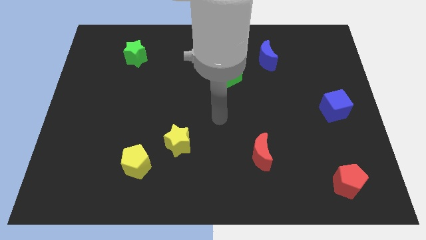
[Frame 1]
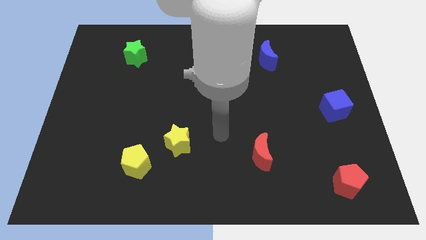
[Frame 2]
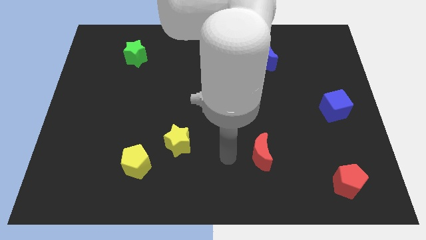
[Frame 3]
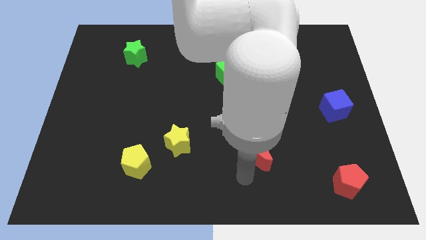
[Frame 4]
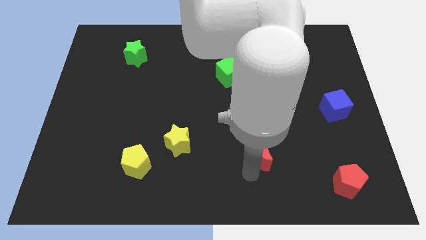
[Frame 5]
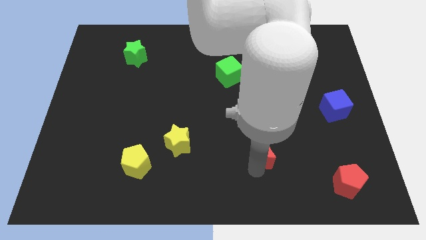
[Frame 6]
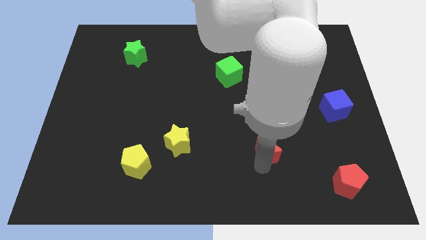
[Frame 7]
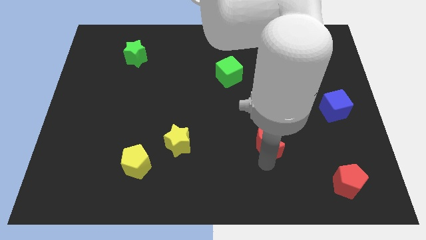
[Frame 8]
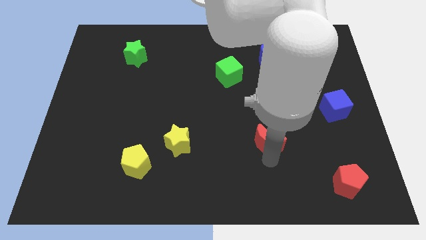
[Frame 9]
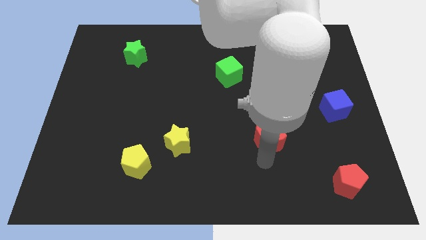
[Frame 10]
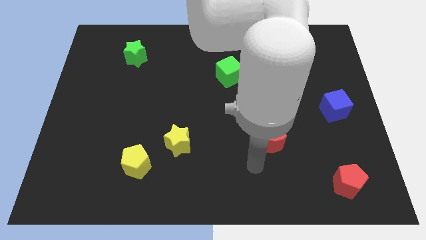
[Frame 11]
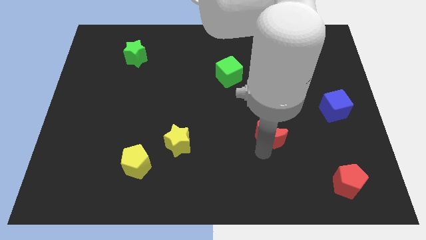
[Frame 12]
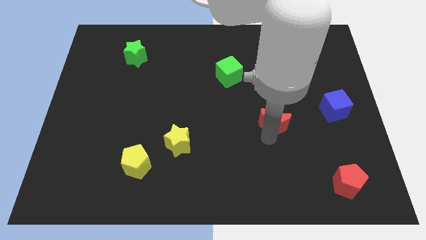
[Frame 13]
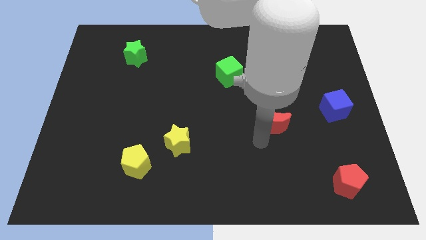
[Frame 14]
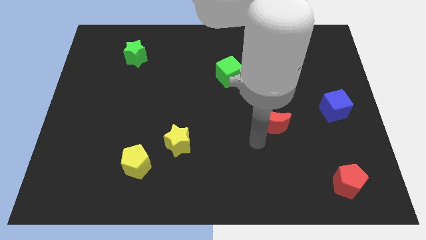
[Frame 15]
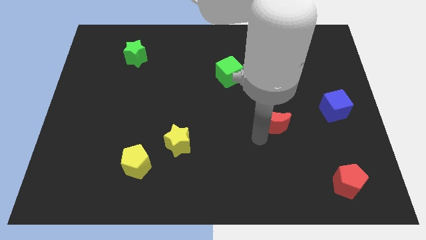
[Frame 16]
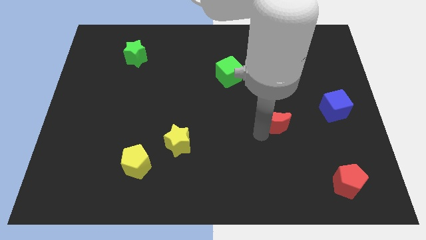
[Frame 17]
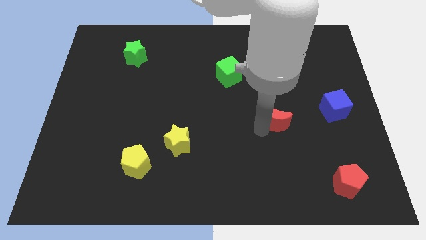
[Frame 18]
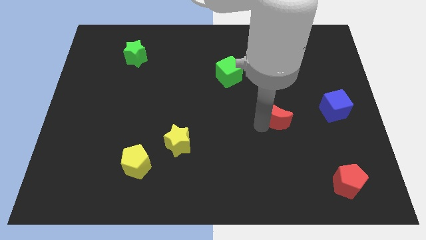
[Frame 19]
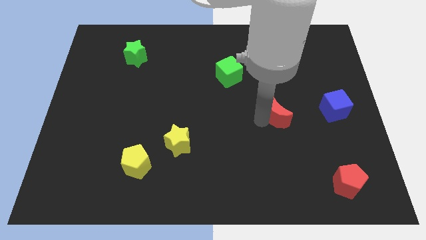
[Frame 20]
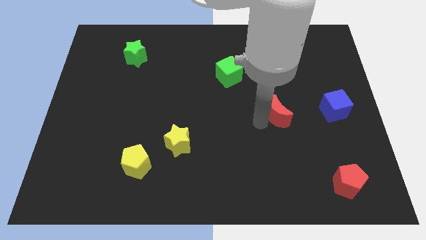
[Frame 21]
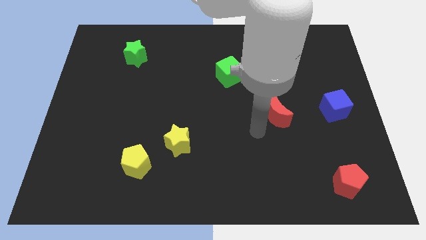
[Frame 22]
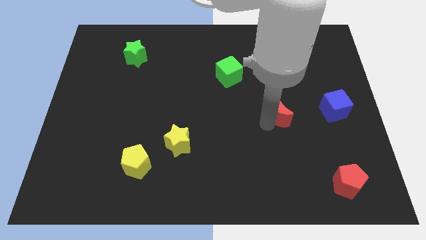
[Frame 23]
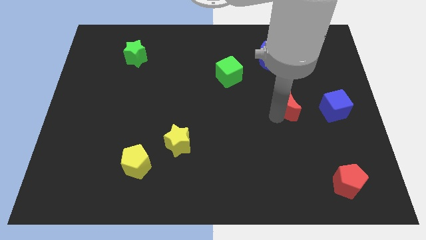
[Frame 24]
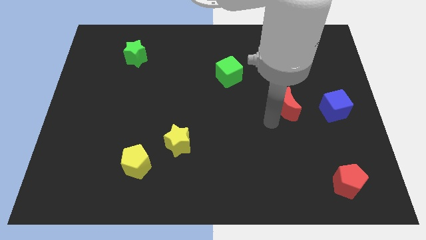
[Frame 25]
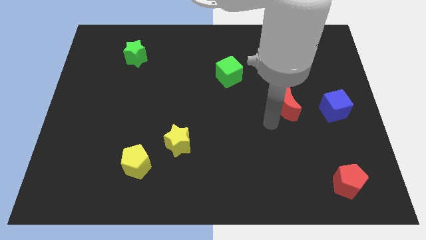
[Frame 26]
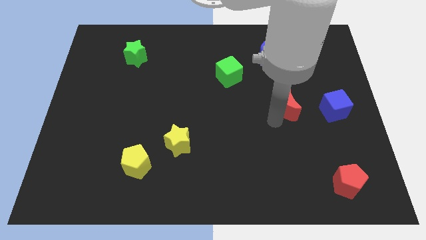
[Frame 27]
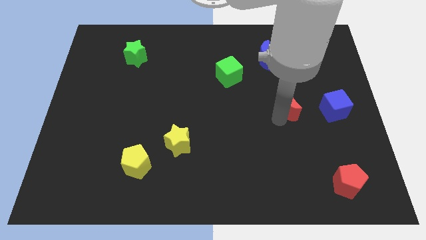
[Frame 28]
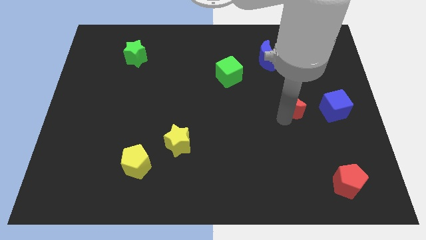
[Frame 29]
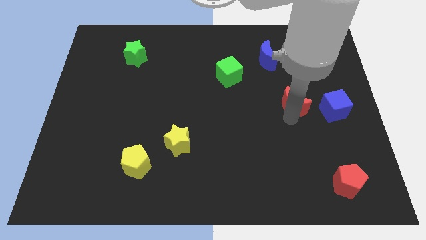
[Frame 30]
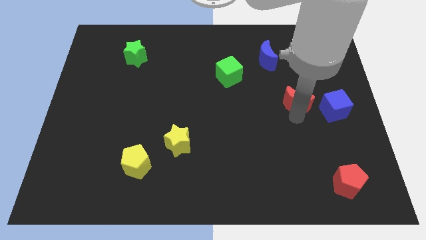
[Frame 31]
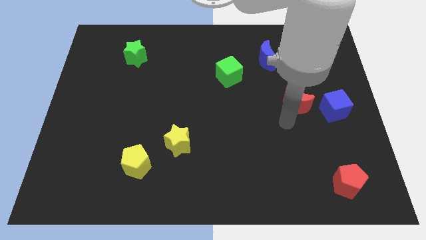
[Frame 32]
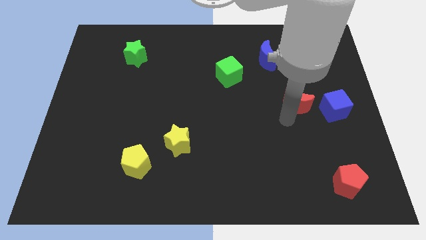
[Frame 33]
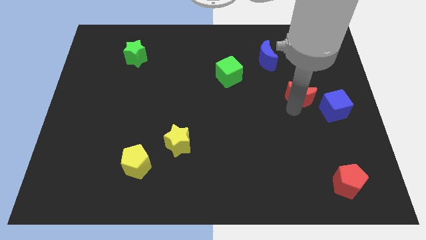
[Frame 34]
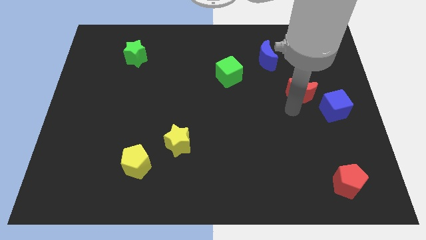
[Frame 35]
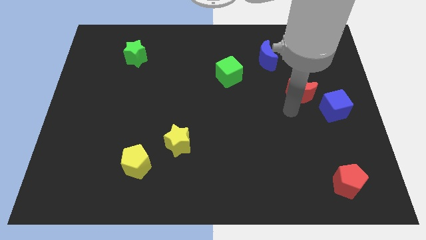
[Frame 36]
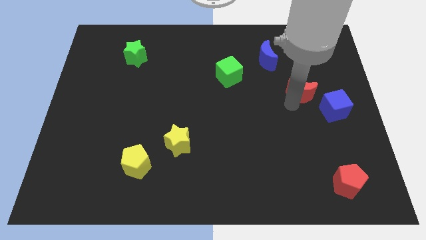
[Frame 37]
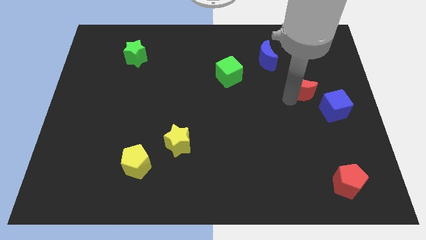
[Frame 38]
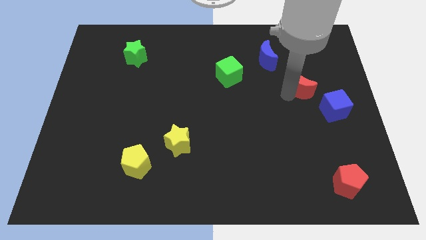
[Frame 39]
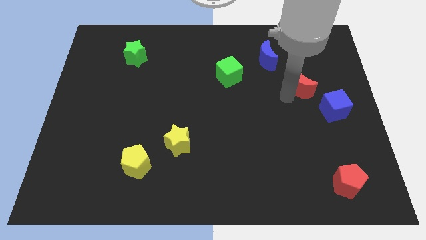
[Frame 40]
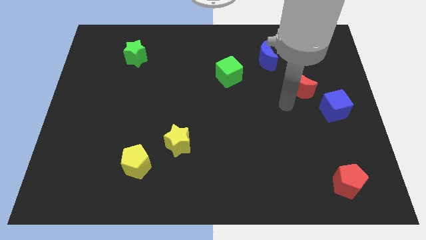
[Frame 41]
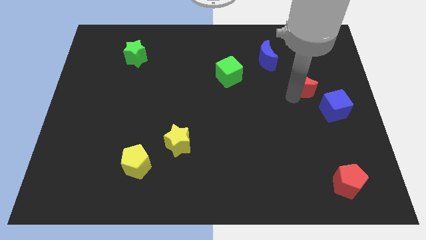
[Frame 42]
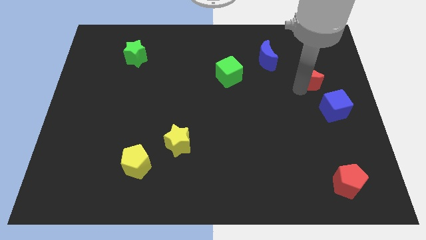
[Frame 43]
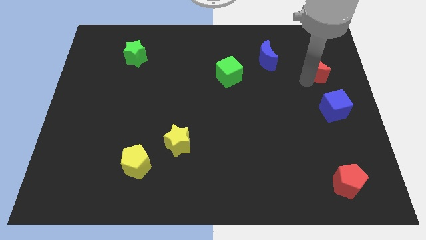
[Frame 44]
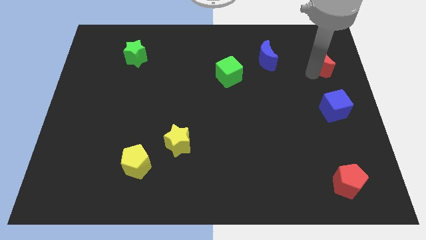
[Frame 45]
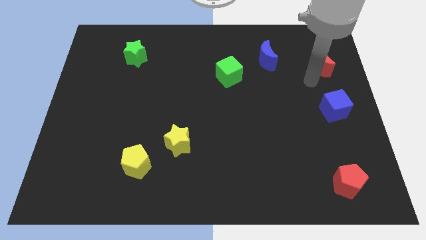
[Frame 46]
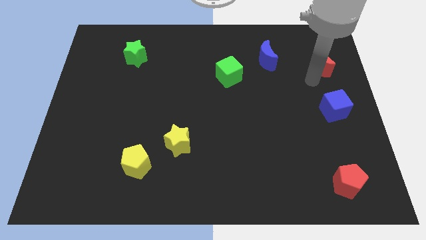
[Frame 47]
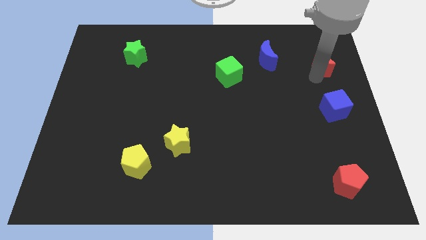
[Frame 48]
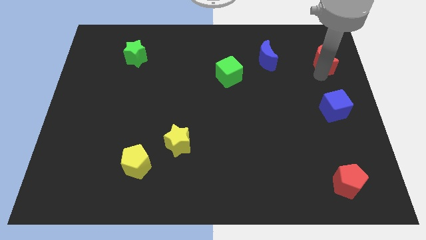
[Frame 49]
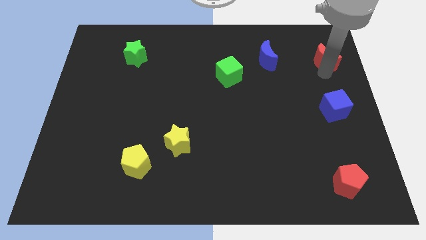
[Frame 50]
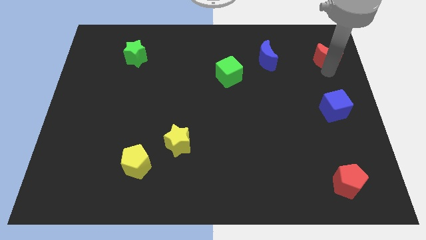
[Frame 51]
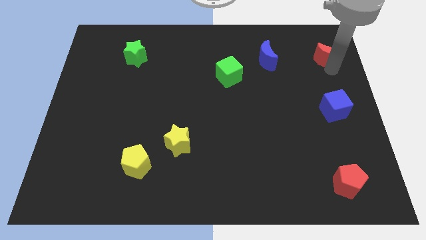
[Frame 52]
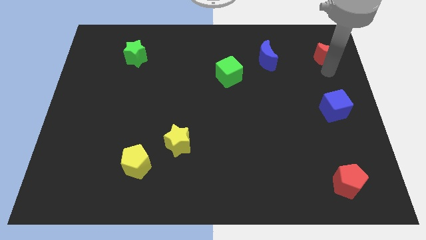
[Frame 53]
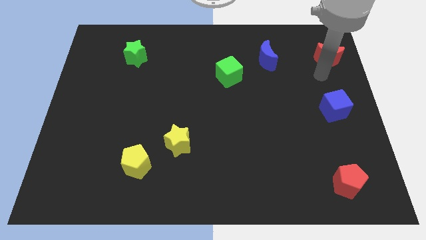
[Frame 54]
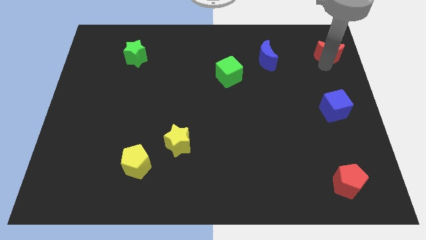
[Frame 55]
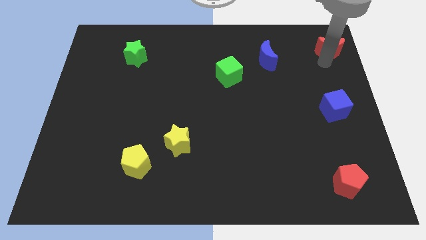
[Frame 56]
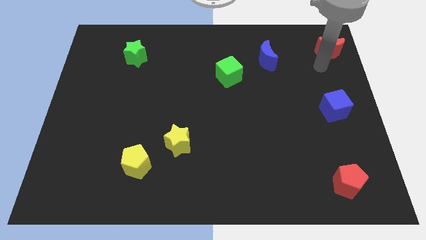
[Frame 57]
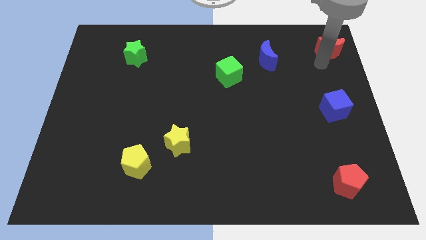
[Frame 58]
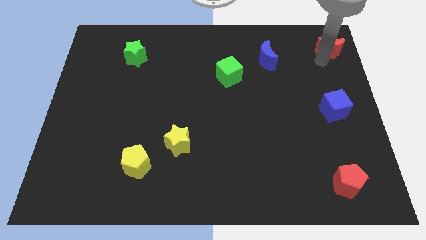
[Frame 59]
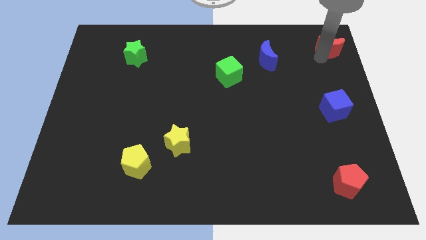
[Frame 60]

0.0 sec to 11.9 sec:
push the red moon to the top right corner

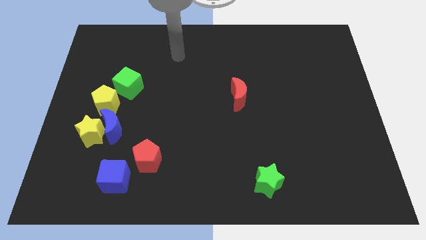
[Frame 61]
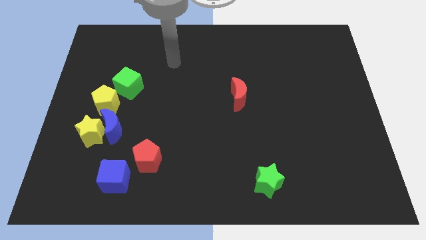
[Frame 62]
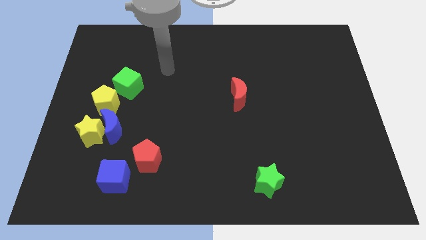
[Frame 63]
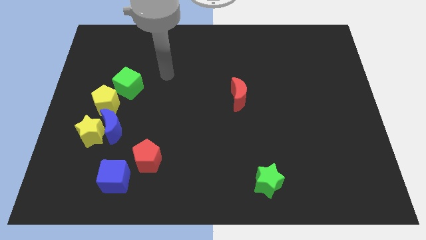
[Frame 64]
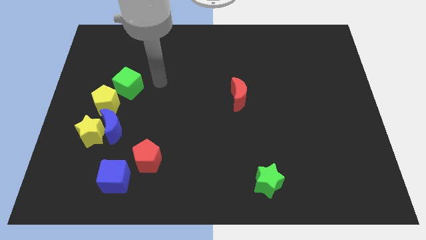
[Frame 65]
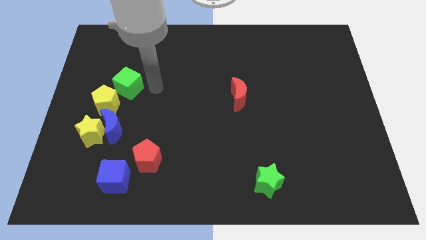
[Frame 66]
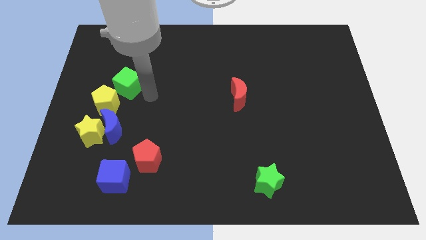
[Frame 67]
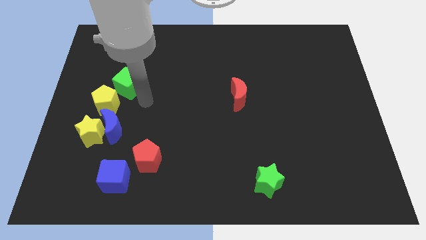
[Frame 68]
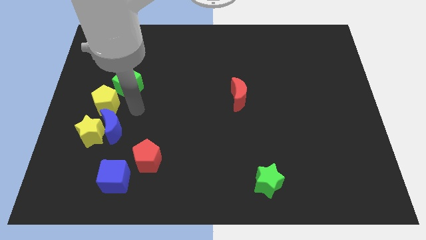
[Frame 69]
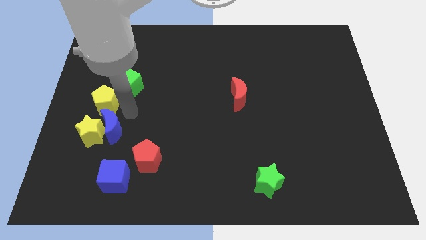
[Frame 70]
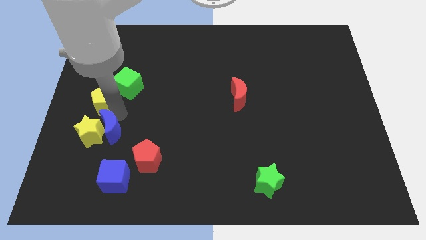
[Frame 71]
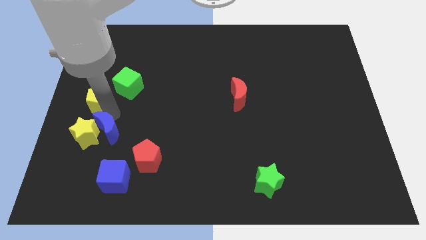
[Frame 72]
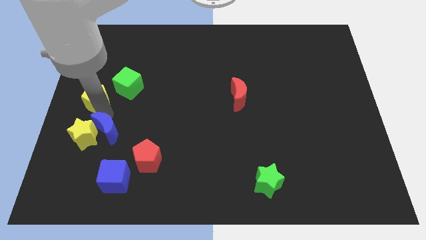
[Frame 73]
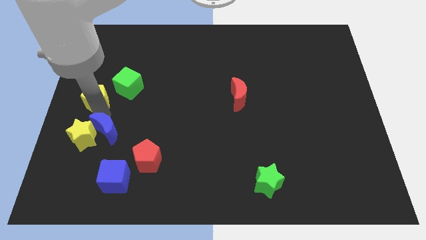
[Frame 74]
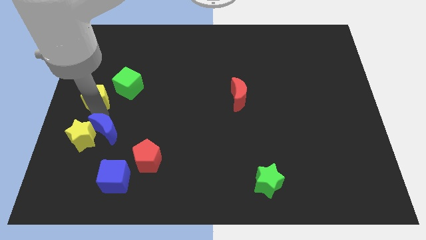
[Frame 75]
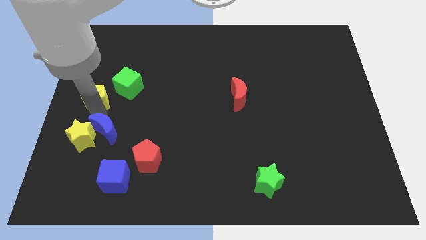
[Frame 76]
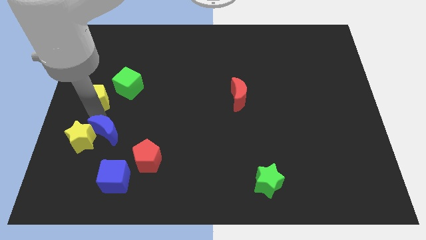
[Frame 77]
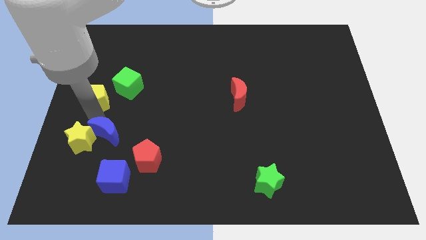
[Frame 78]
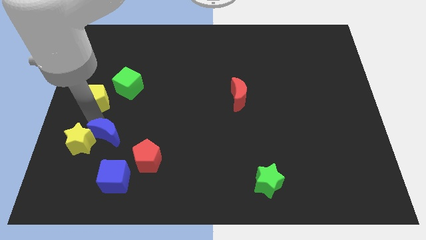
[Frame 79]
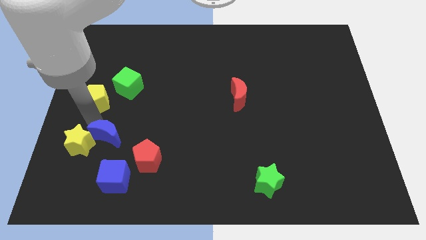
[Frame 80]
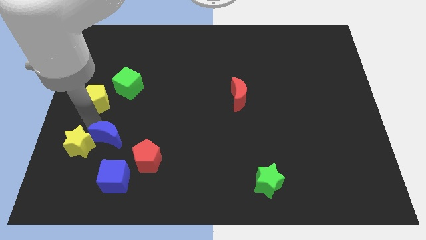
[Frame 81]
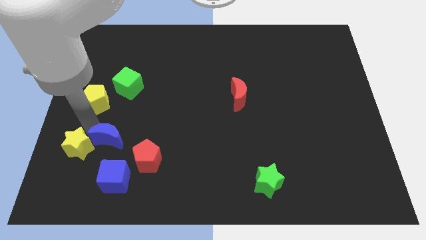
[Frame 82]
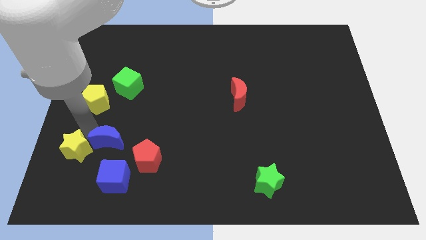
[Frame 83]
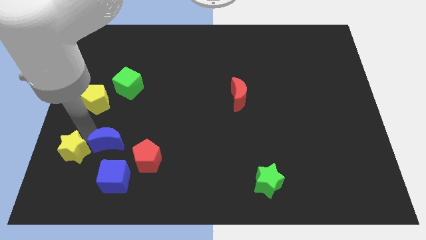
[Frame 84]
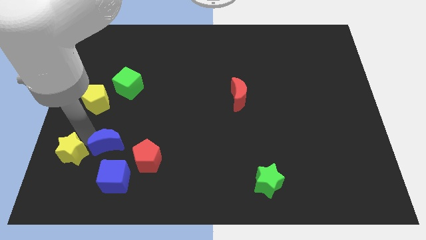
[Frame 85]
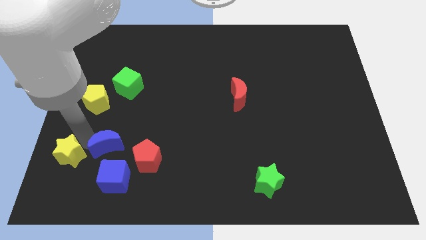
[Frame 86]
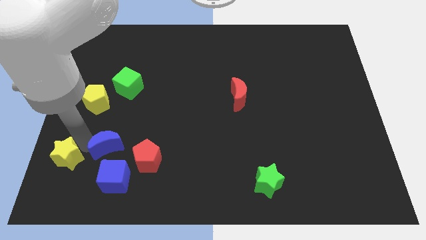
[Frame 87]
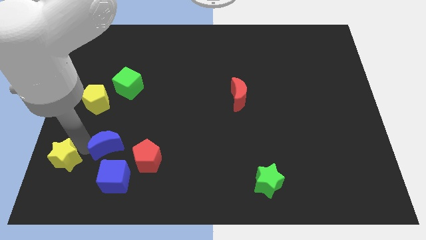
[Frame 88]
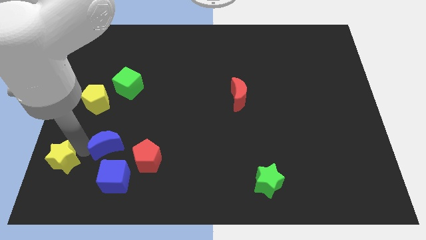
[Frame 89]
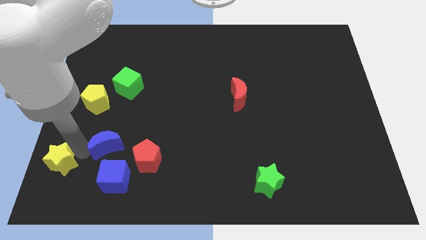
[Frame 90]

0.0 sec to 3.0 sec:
push the yellow star to the lower left corner
